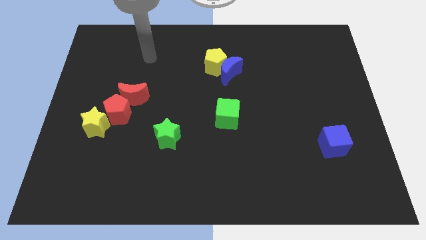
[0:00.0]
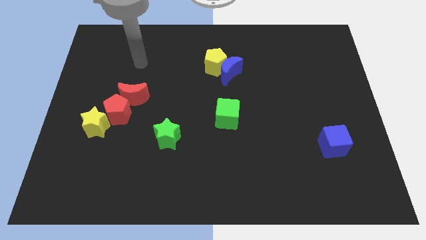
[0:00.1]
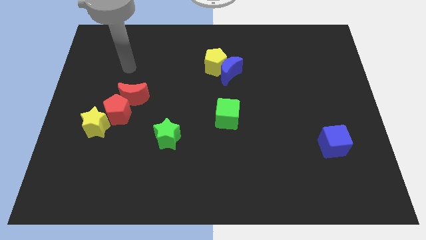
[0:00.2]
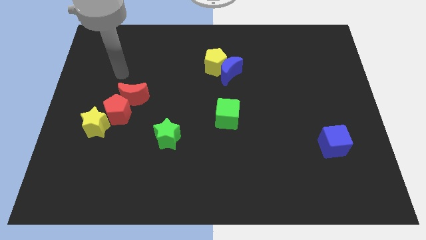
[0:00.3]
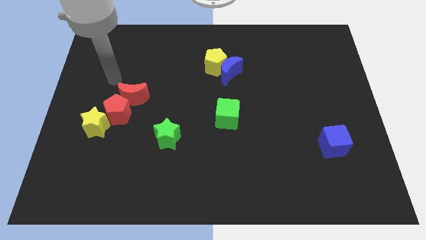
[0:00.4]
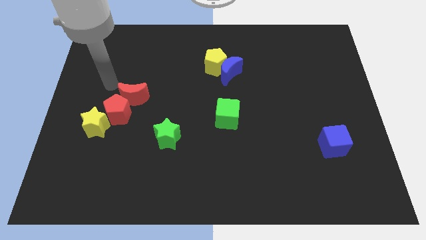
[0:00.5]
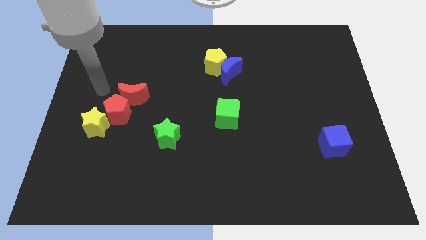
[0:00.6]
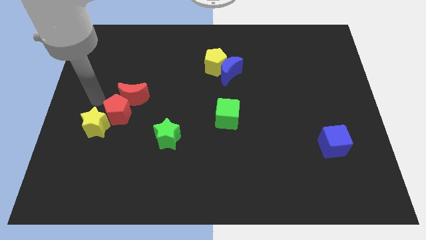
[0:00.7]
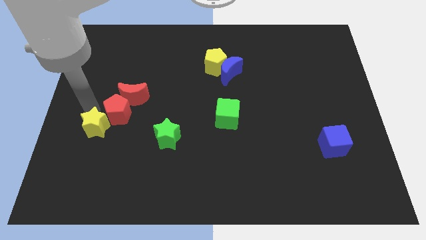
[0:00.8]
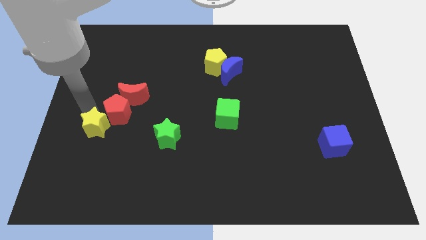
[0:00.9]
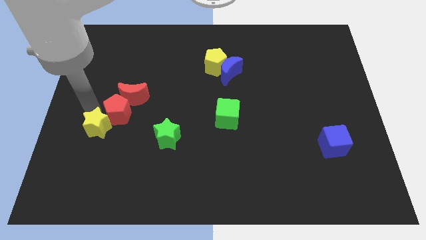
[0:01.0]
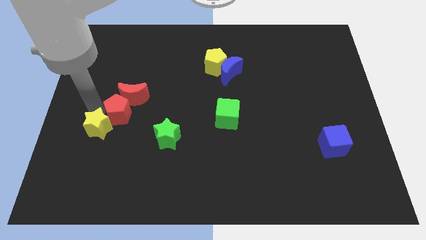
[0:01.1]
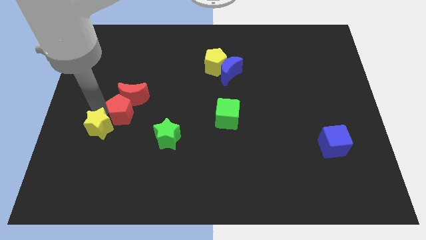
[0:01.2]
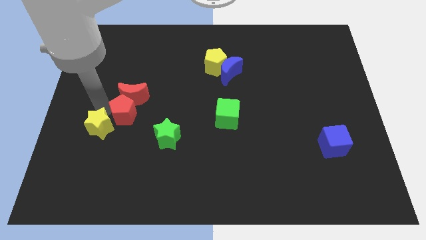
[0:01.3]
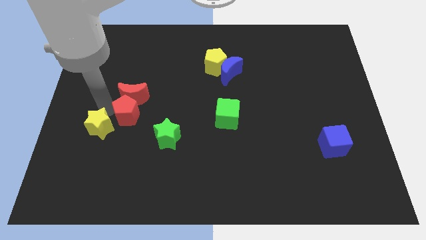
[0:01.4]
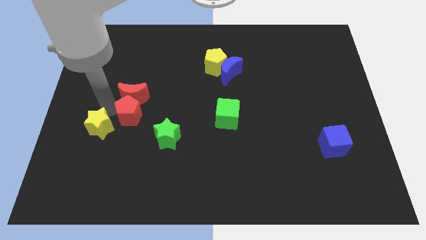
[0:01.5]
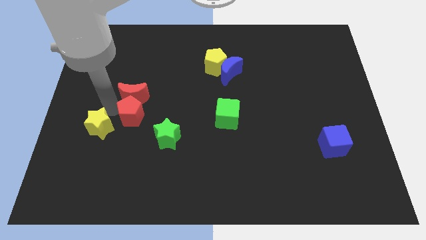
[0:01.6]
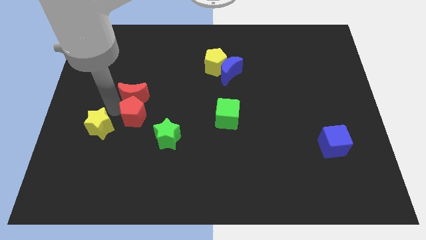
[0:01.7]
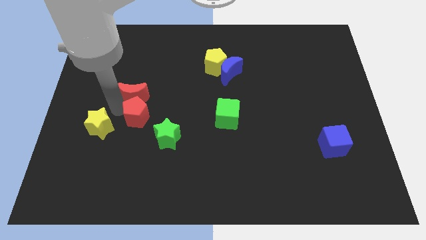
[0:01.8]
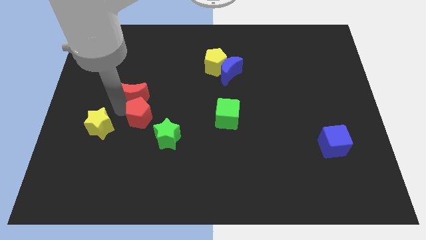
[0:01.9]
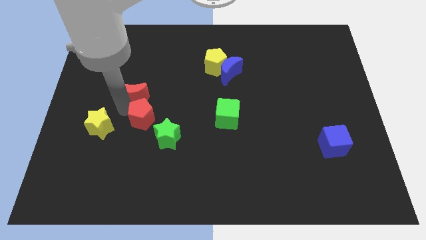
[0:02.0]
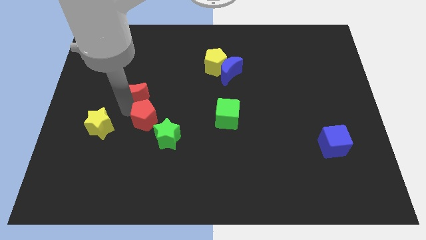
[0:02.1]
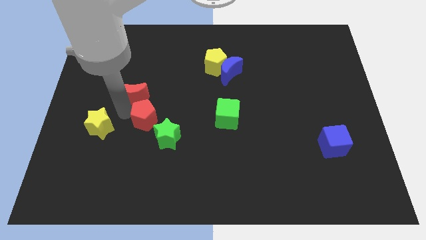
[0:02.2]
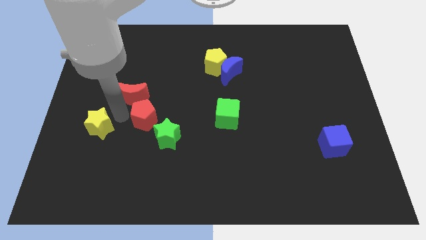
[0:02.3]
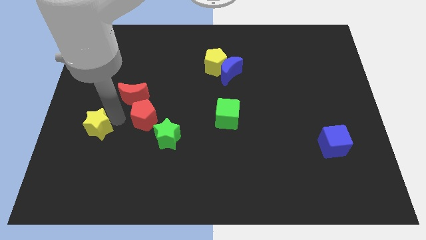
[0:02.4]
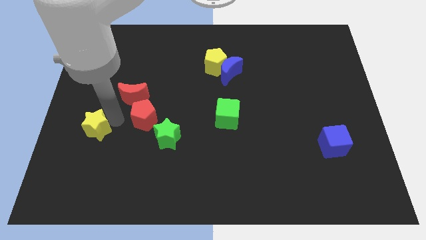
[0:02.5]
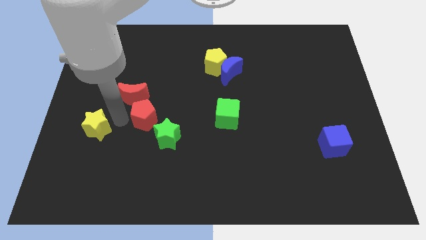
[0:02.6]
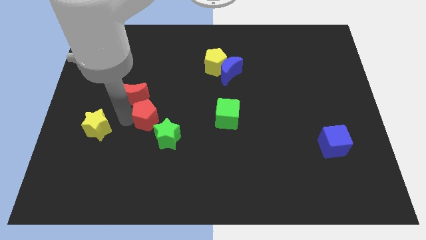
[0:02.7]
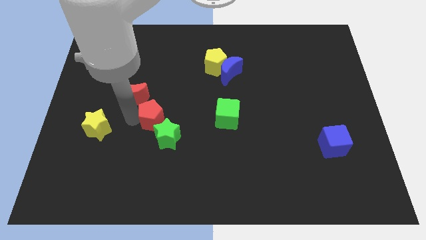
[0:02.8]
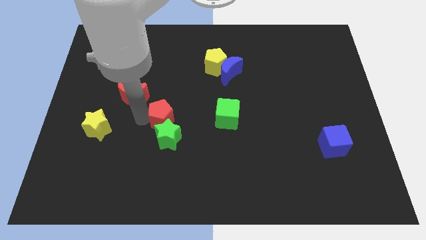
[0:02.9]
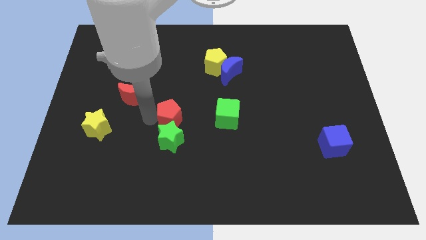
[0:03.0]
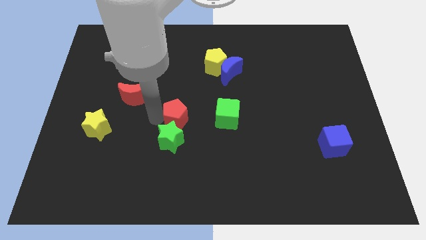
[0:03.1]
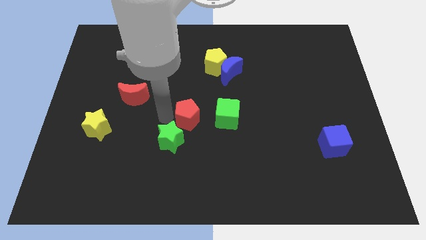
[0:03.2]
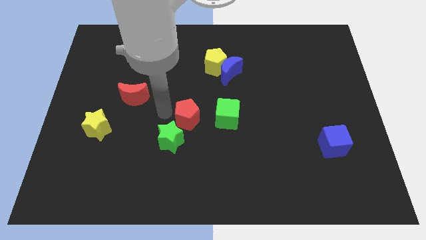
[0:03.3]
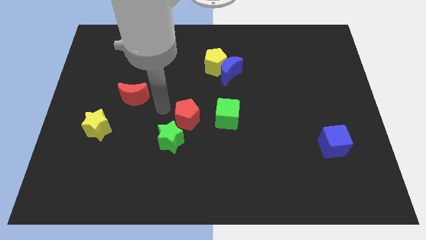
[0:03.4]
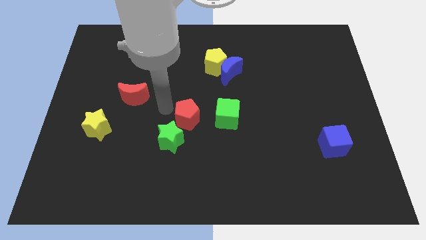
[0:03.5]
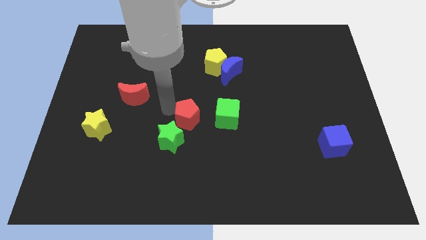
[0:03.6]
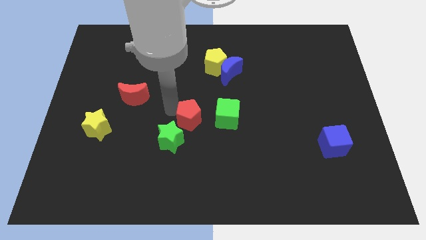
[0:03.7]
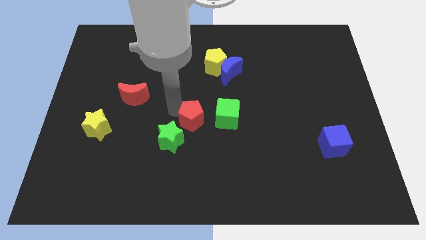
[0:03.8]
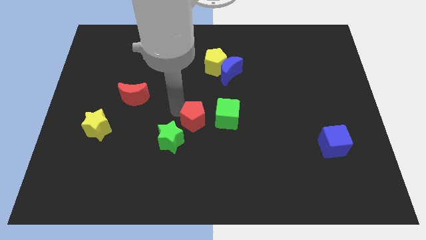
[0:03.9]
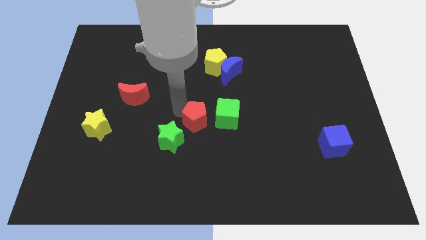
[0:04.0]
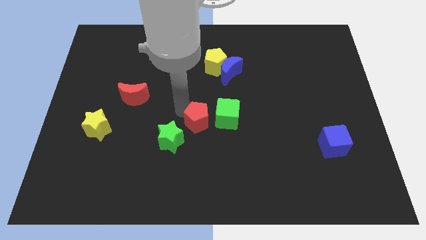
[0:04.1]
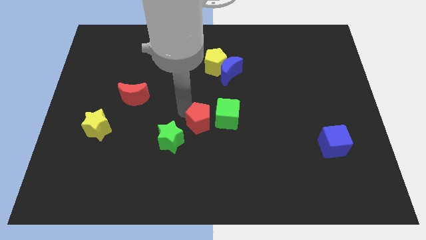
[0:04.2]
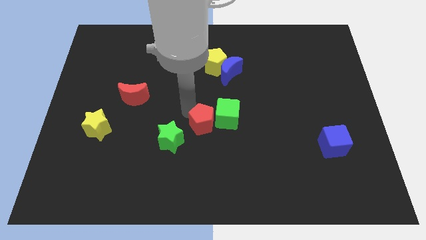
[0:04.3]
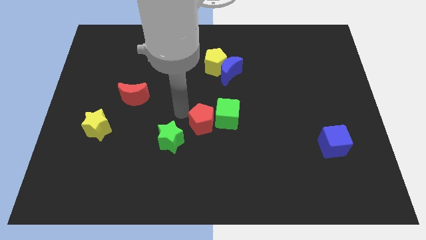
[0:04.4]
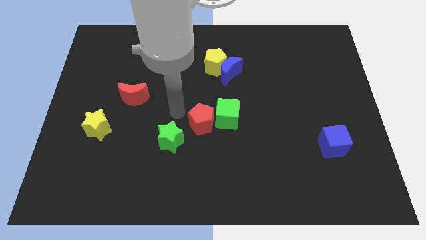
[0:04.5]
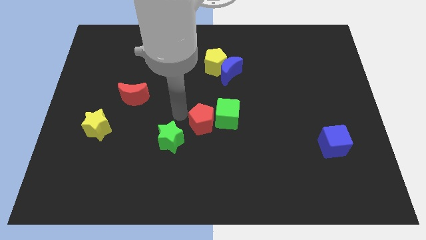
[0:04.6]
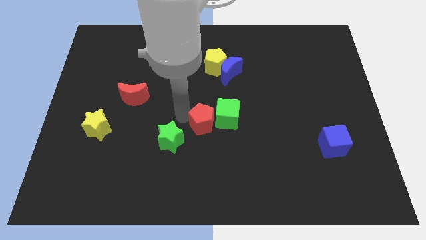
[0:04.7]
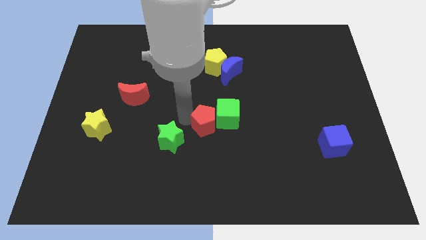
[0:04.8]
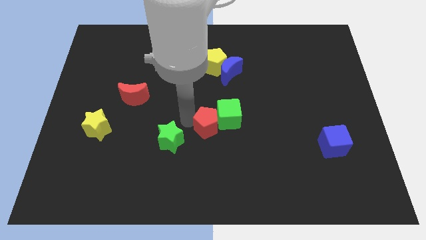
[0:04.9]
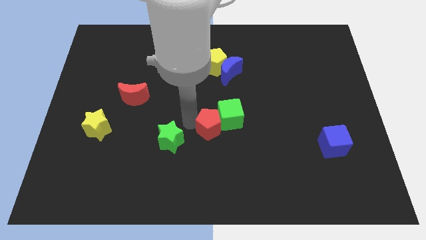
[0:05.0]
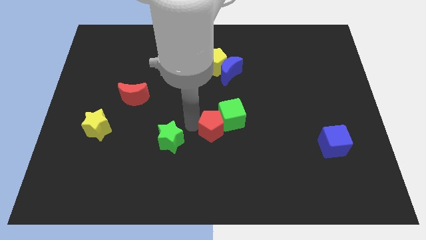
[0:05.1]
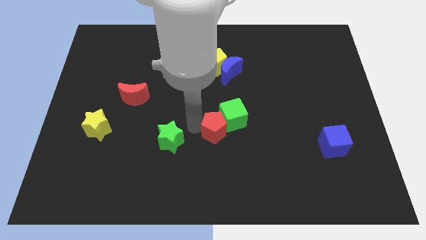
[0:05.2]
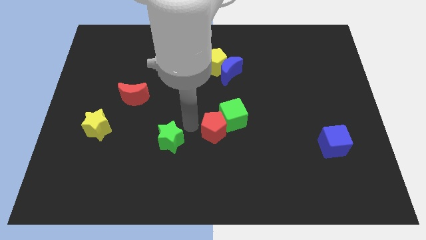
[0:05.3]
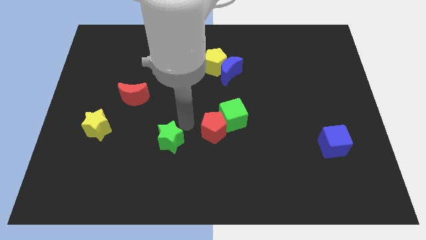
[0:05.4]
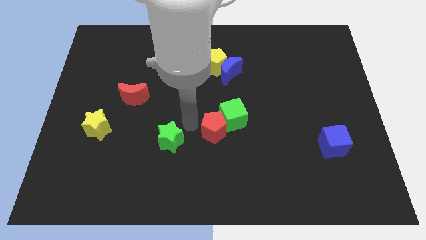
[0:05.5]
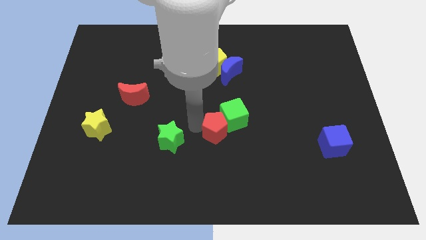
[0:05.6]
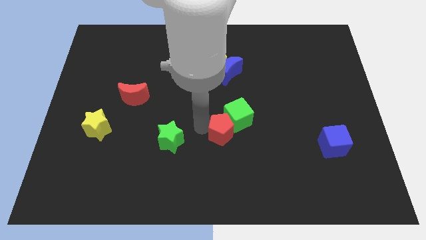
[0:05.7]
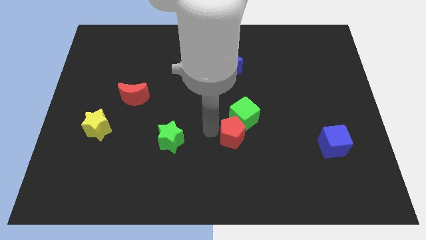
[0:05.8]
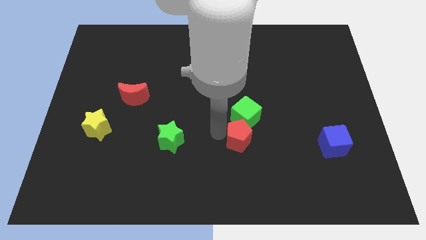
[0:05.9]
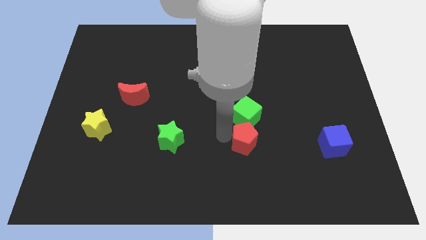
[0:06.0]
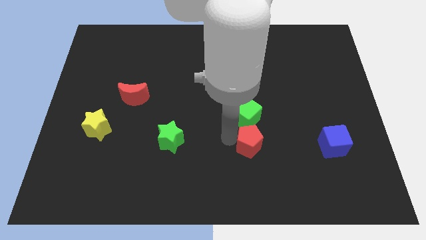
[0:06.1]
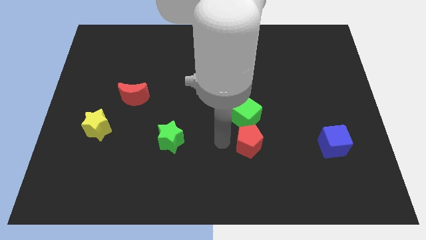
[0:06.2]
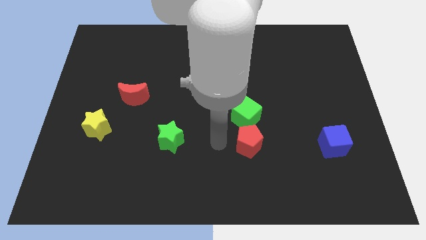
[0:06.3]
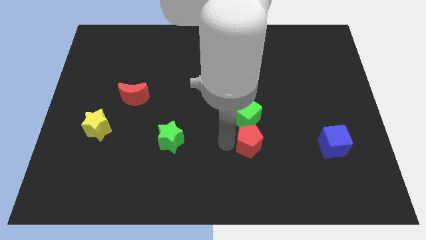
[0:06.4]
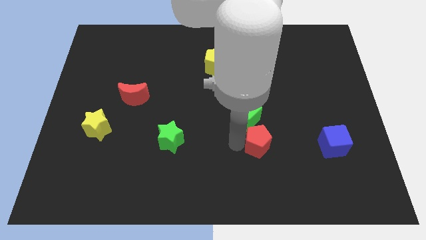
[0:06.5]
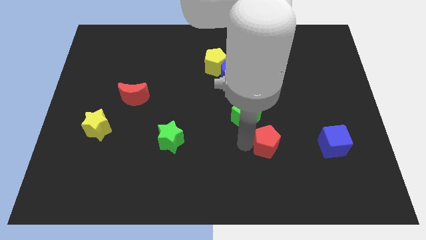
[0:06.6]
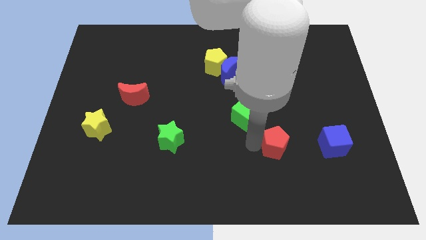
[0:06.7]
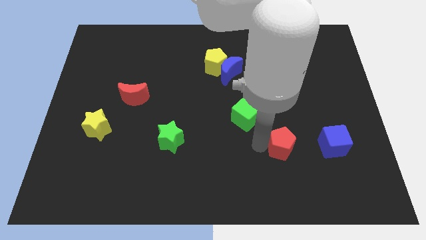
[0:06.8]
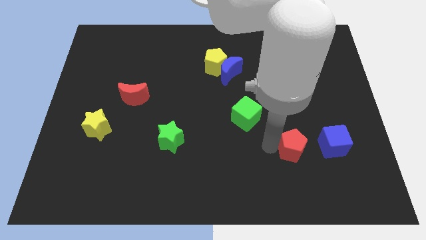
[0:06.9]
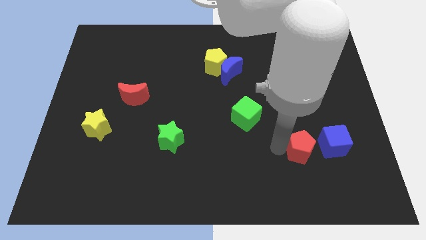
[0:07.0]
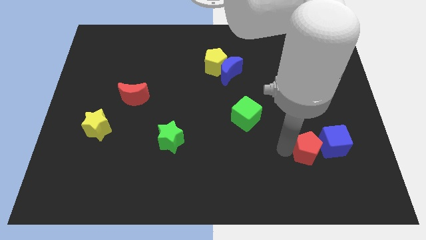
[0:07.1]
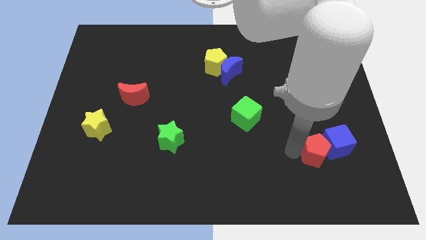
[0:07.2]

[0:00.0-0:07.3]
push the red pentagon towards the blue cube
